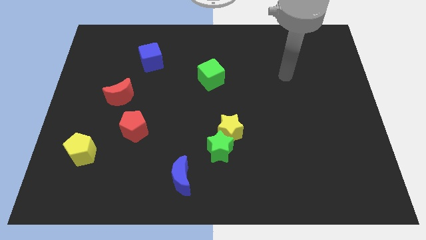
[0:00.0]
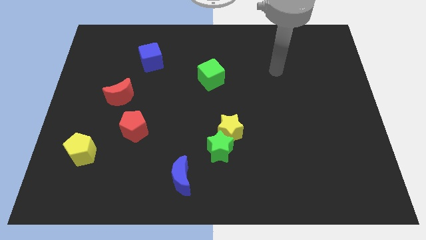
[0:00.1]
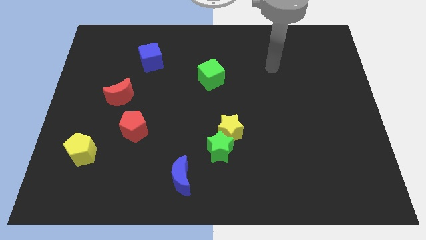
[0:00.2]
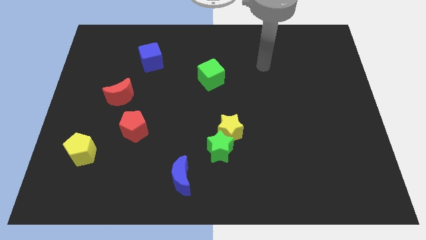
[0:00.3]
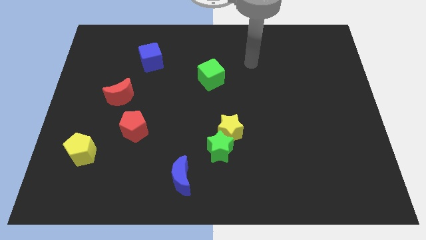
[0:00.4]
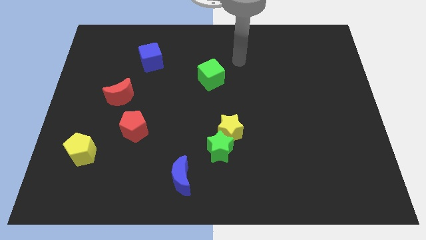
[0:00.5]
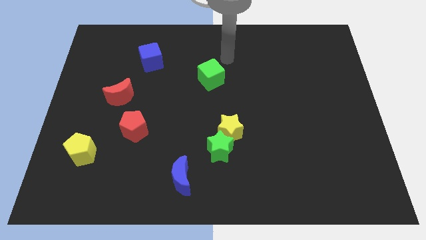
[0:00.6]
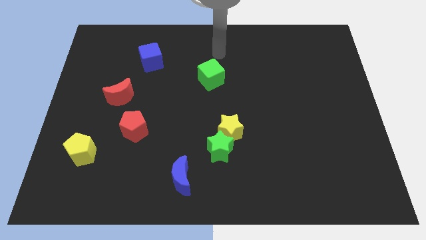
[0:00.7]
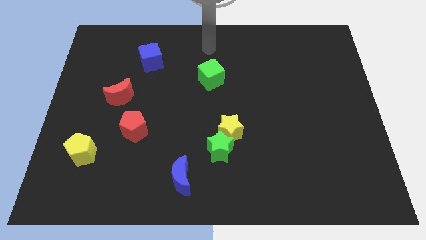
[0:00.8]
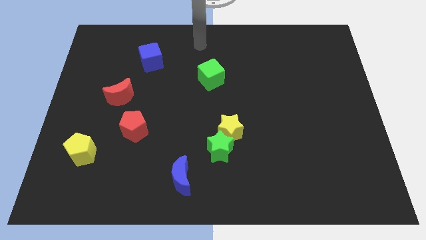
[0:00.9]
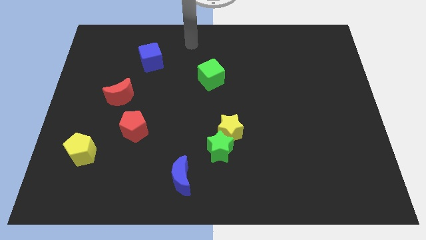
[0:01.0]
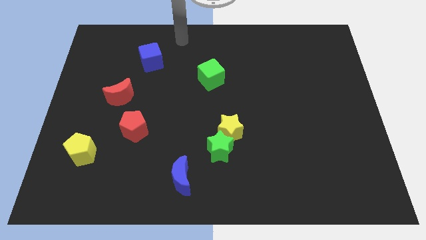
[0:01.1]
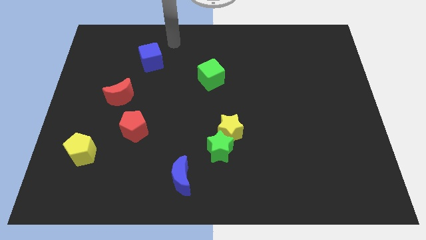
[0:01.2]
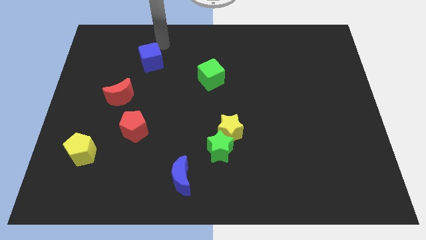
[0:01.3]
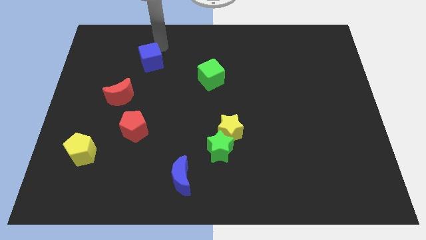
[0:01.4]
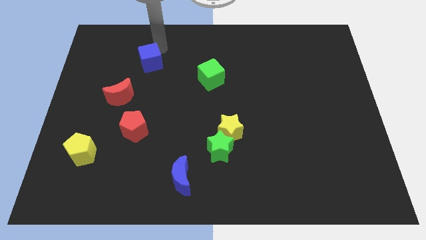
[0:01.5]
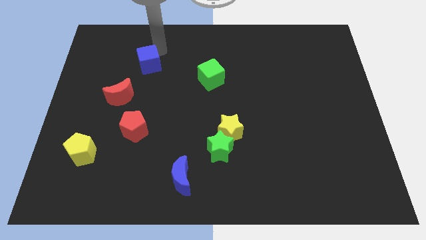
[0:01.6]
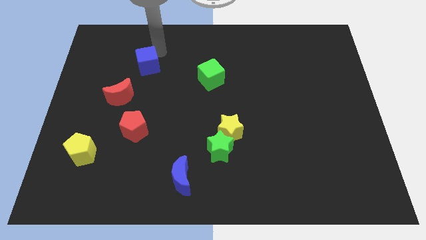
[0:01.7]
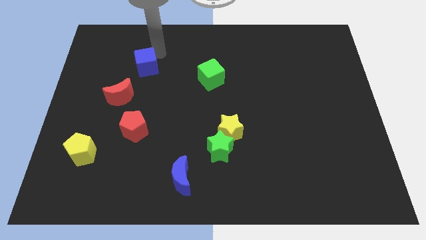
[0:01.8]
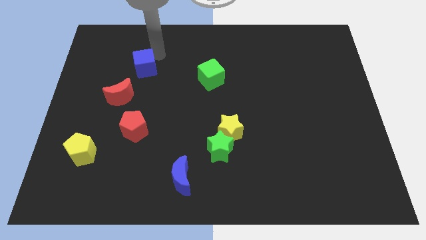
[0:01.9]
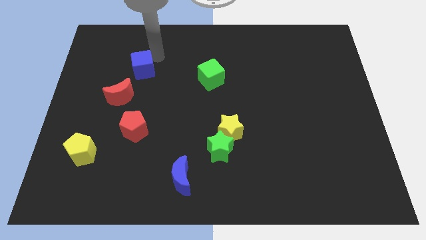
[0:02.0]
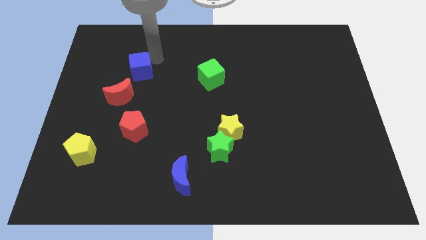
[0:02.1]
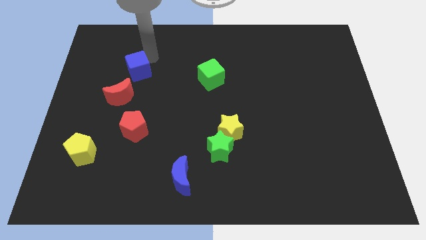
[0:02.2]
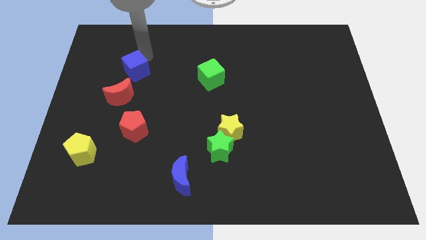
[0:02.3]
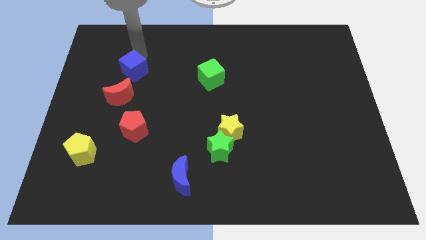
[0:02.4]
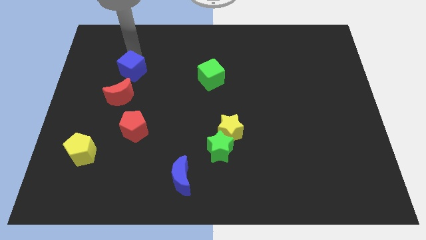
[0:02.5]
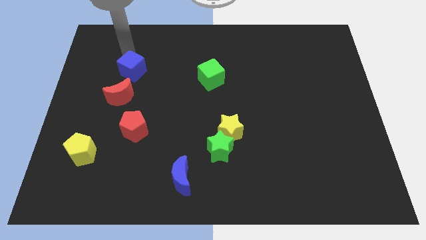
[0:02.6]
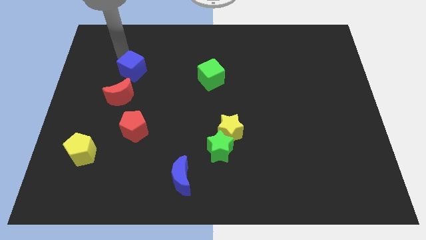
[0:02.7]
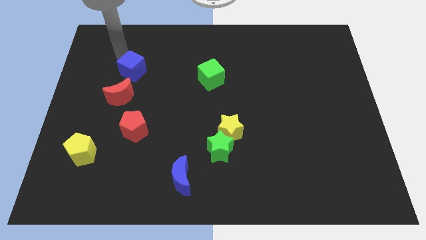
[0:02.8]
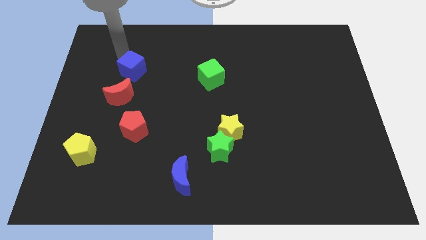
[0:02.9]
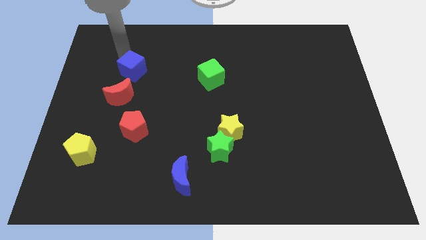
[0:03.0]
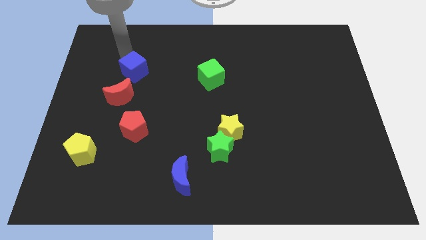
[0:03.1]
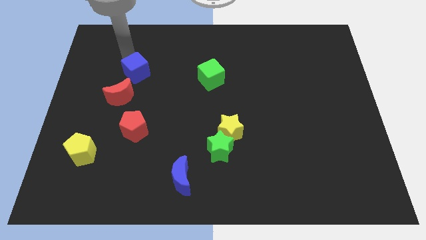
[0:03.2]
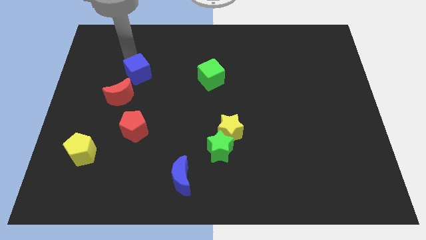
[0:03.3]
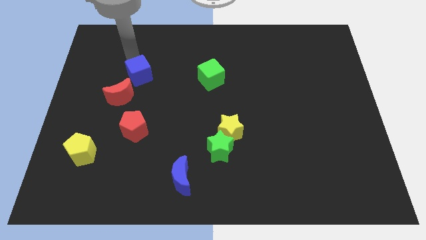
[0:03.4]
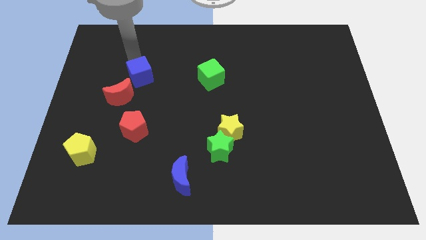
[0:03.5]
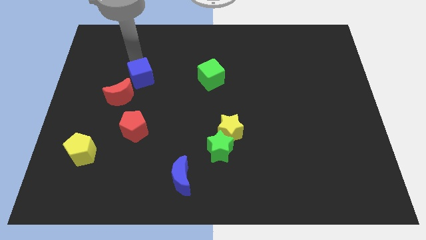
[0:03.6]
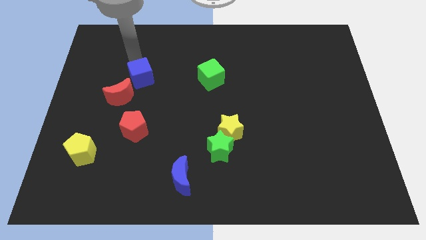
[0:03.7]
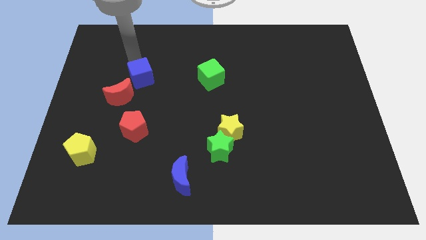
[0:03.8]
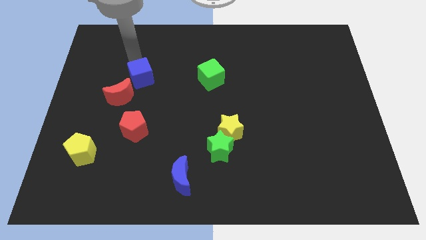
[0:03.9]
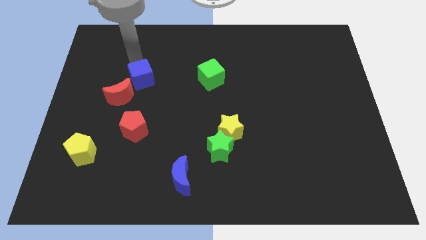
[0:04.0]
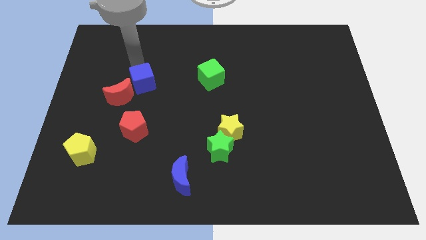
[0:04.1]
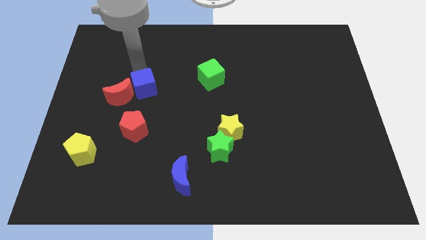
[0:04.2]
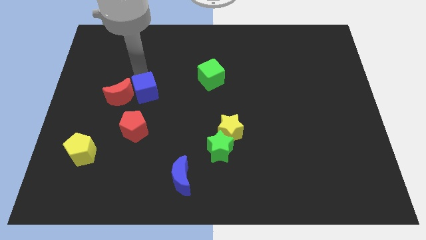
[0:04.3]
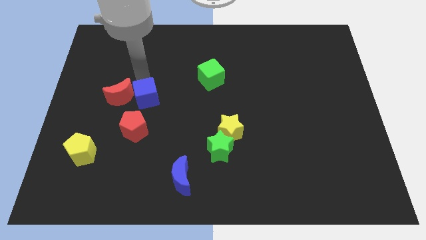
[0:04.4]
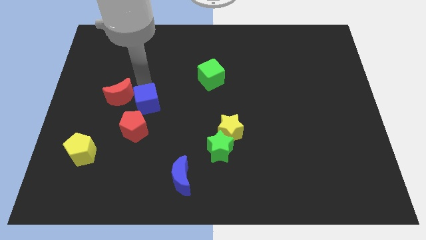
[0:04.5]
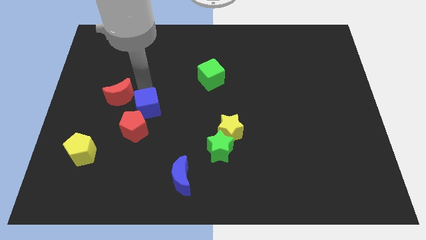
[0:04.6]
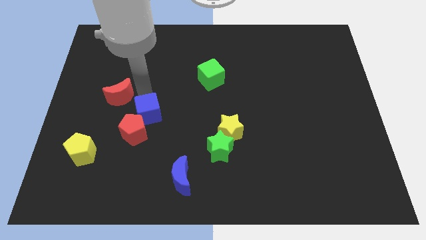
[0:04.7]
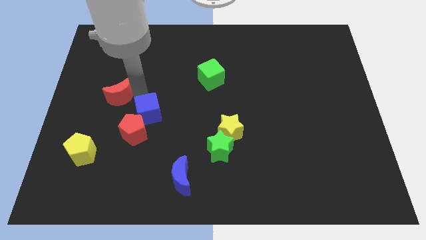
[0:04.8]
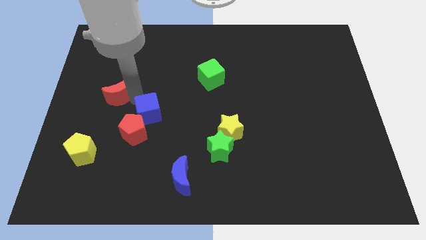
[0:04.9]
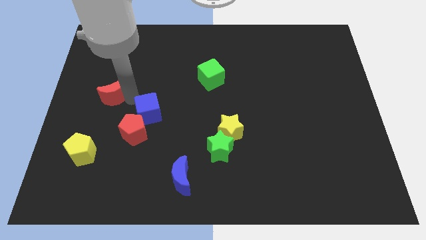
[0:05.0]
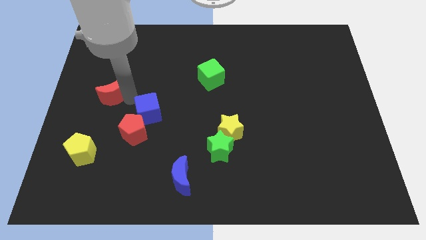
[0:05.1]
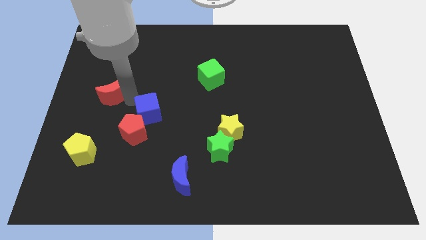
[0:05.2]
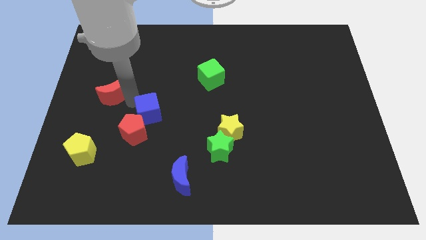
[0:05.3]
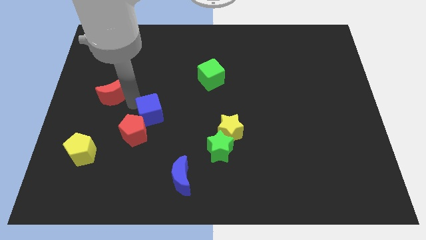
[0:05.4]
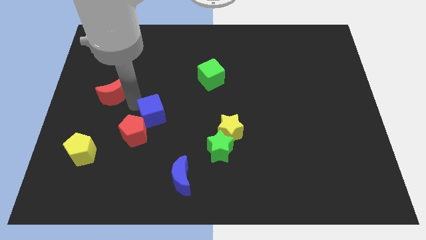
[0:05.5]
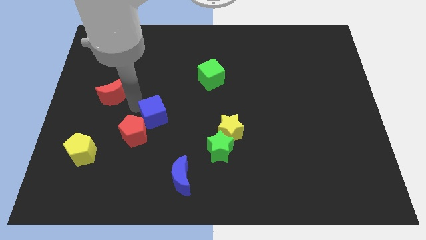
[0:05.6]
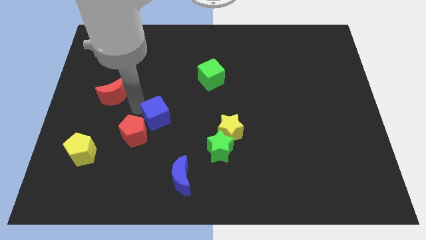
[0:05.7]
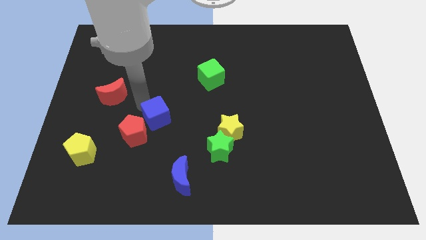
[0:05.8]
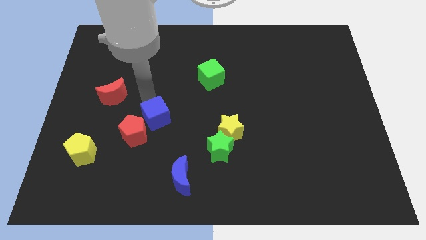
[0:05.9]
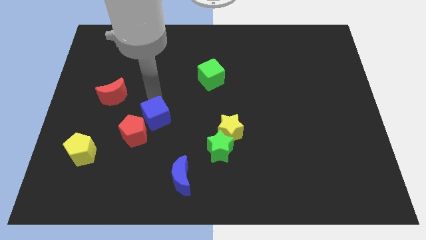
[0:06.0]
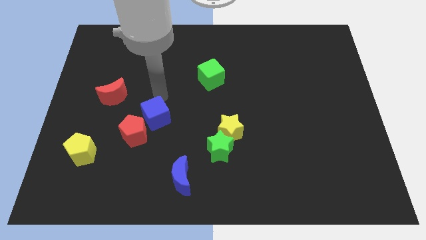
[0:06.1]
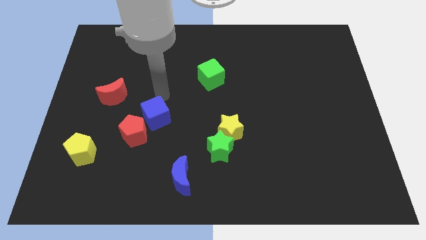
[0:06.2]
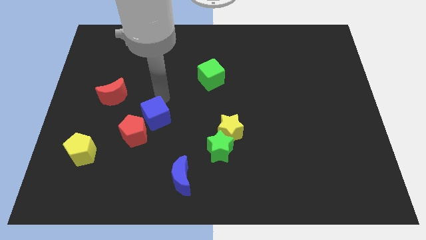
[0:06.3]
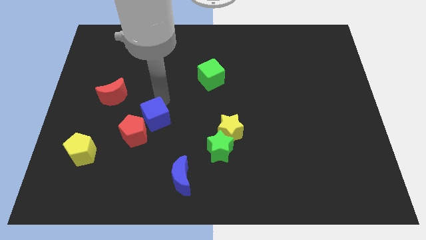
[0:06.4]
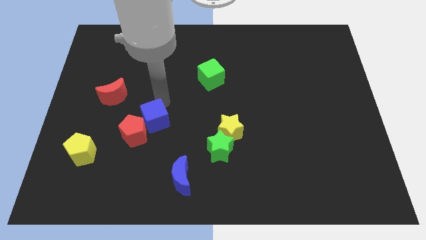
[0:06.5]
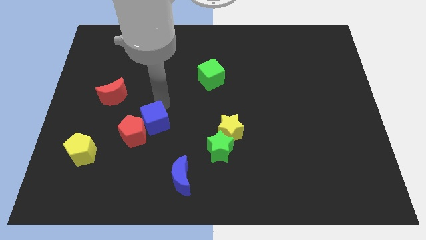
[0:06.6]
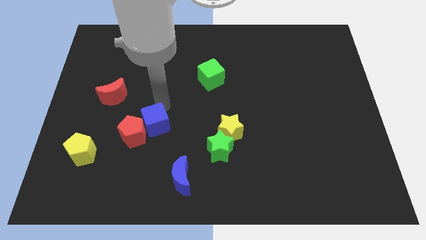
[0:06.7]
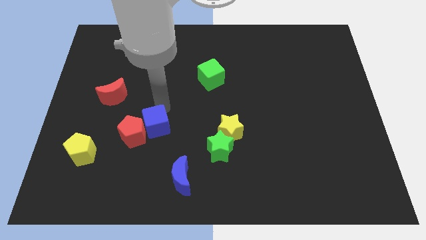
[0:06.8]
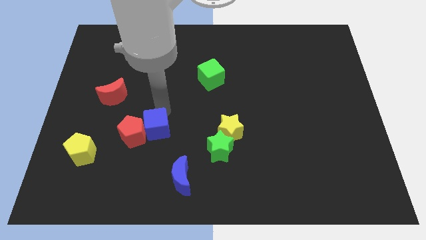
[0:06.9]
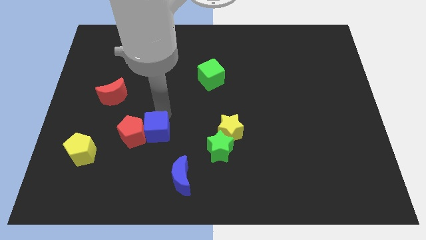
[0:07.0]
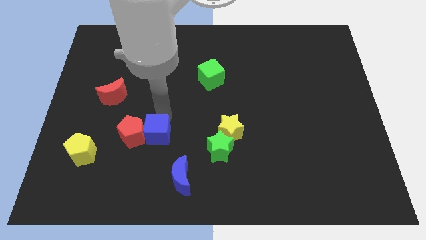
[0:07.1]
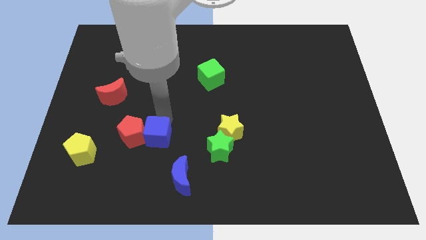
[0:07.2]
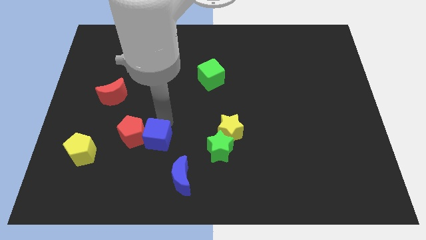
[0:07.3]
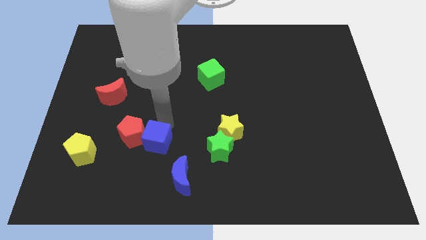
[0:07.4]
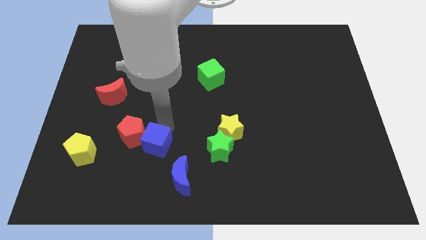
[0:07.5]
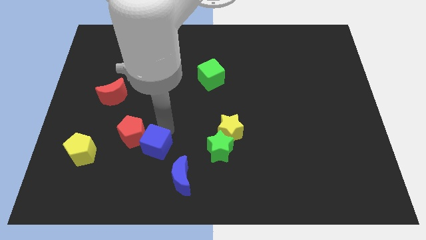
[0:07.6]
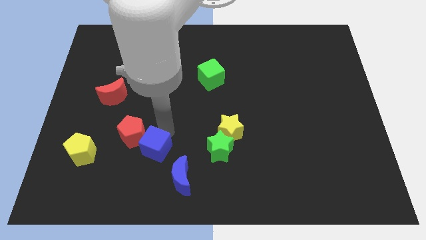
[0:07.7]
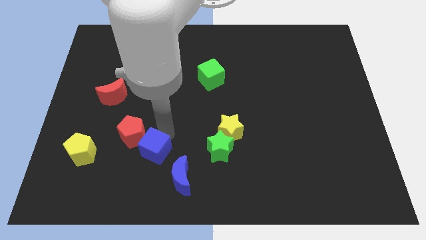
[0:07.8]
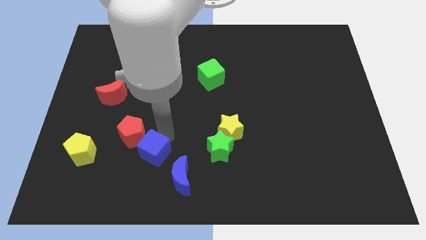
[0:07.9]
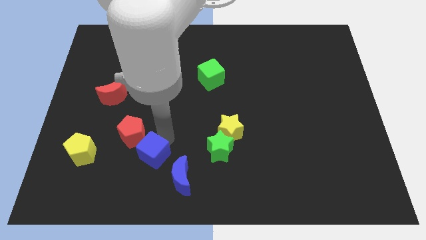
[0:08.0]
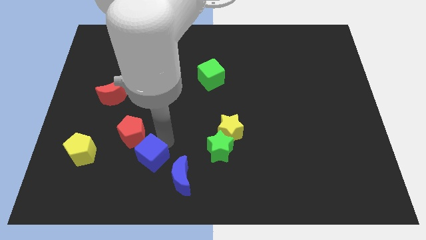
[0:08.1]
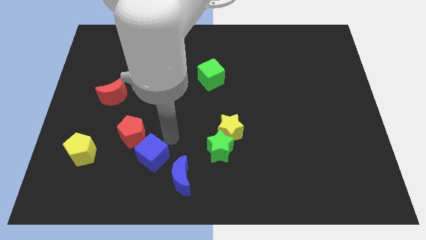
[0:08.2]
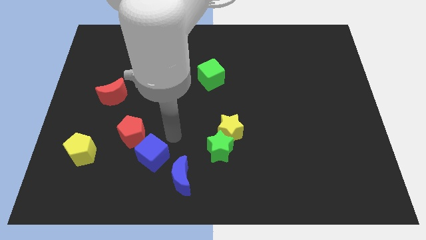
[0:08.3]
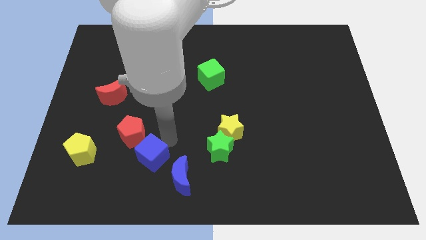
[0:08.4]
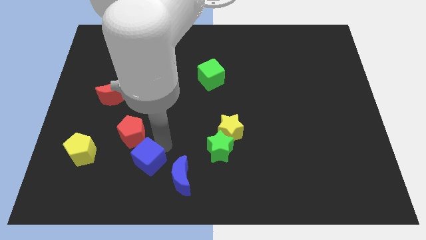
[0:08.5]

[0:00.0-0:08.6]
slide the blue cube to the left of the blue moon

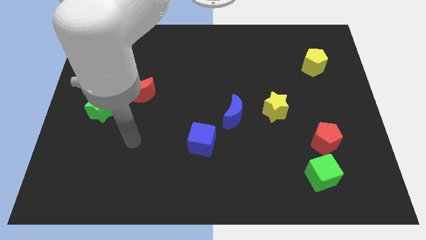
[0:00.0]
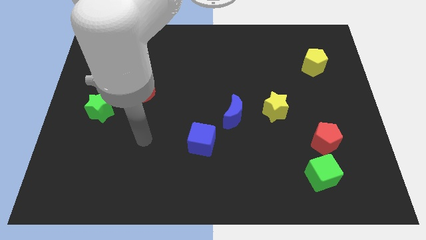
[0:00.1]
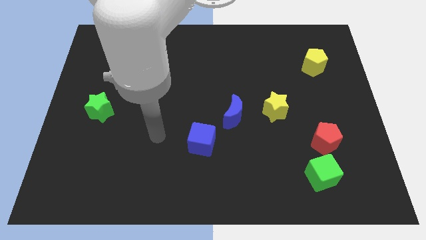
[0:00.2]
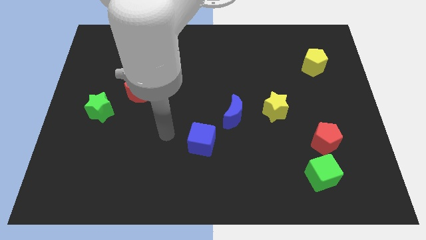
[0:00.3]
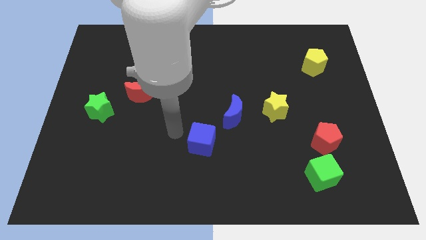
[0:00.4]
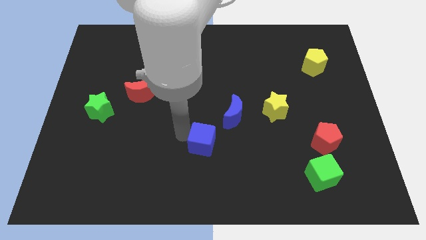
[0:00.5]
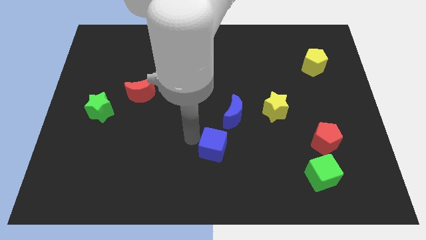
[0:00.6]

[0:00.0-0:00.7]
put the blue cube below the blue moon
